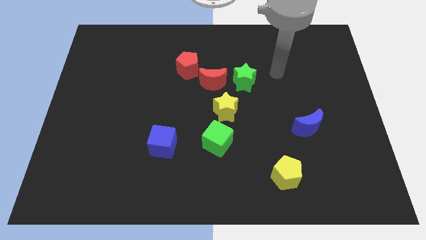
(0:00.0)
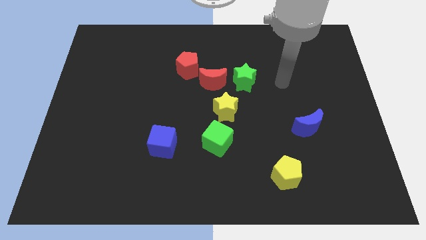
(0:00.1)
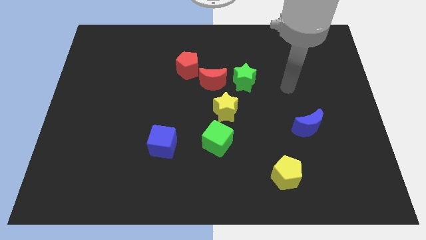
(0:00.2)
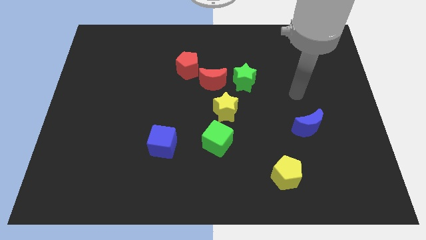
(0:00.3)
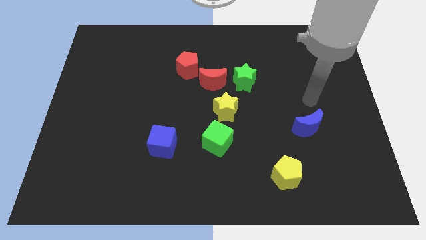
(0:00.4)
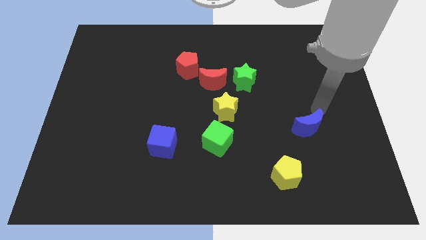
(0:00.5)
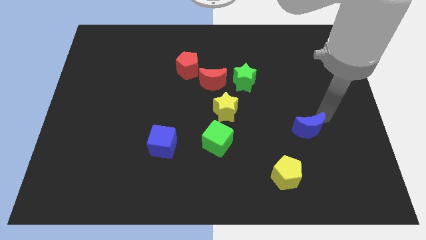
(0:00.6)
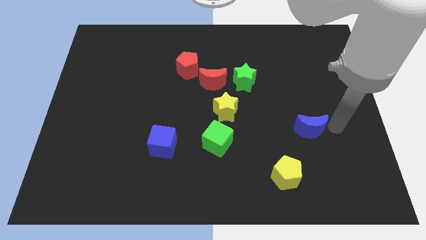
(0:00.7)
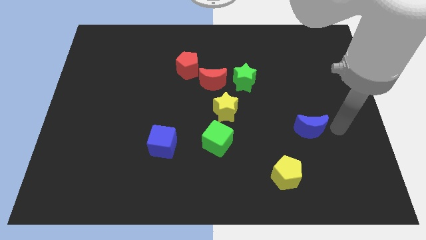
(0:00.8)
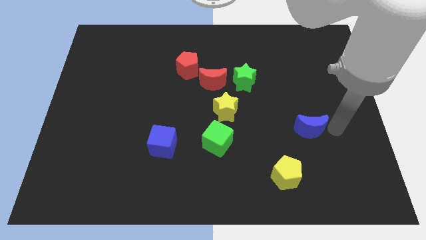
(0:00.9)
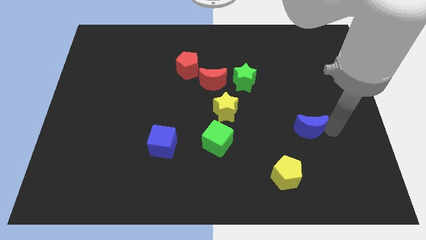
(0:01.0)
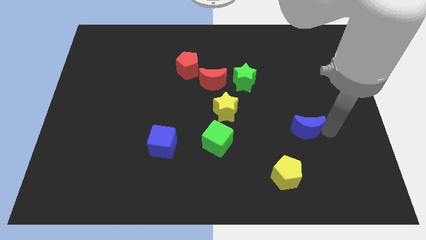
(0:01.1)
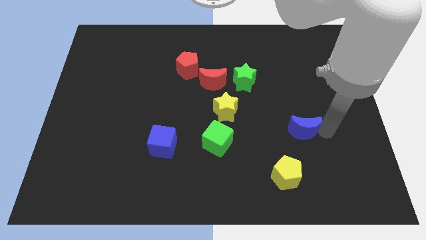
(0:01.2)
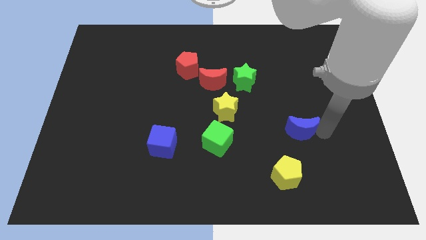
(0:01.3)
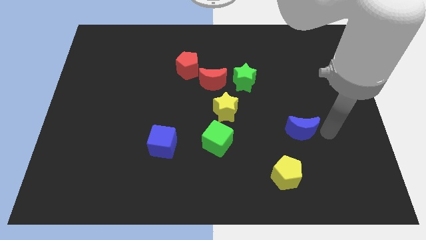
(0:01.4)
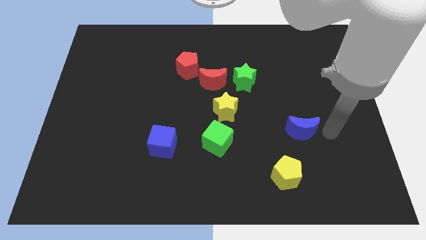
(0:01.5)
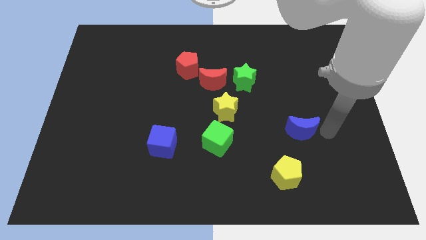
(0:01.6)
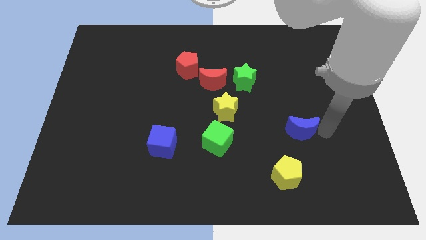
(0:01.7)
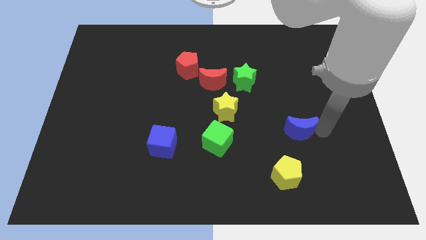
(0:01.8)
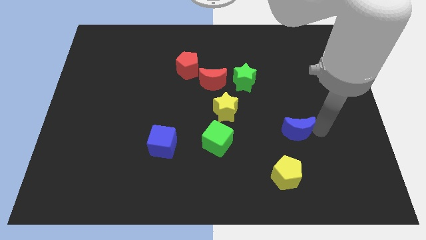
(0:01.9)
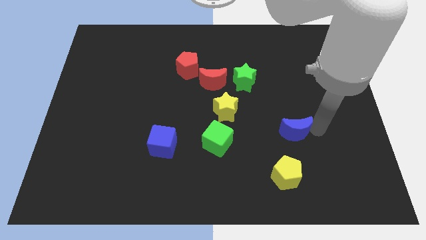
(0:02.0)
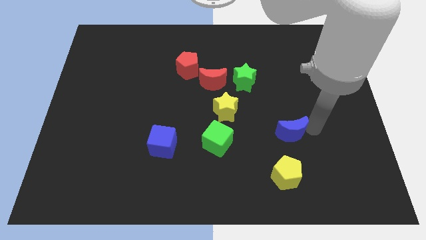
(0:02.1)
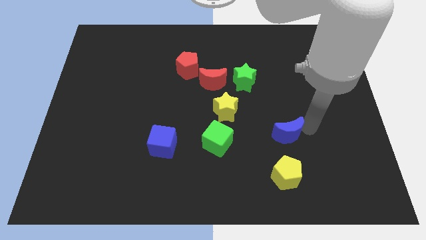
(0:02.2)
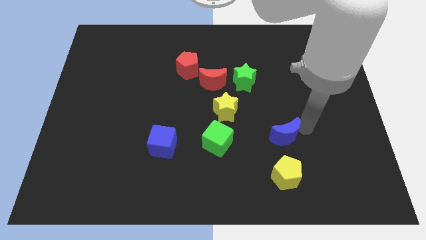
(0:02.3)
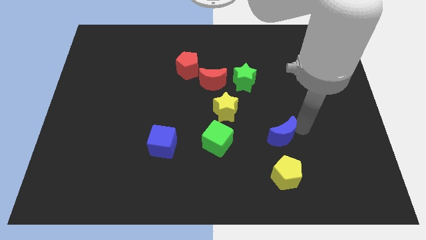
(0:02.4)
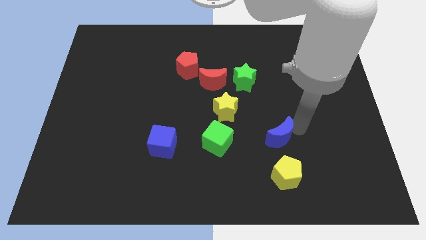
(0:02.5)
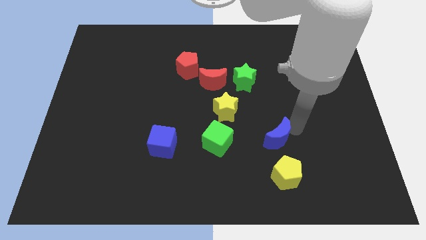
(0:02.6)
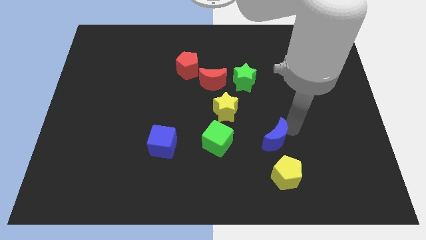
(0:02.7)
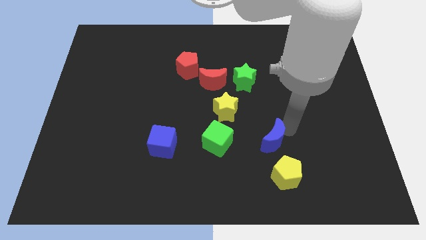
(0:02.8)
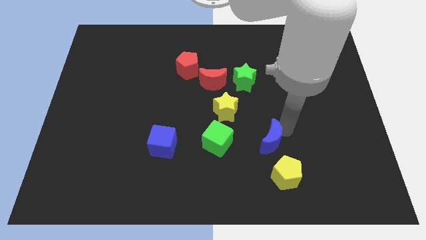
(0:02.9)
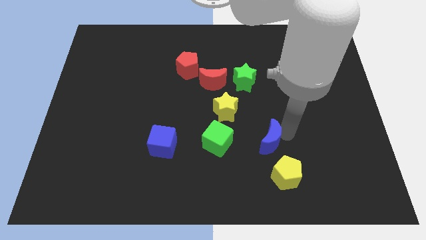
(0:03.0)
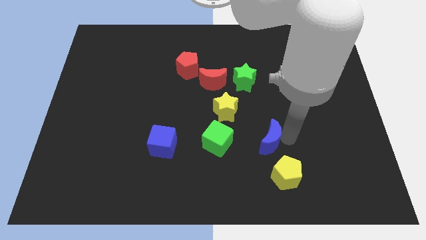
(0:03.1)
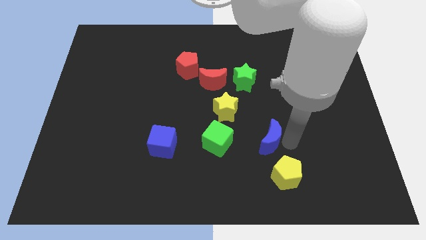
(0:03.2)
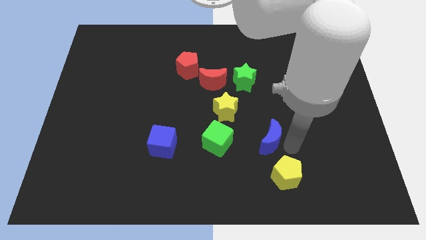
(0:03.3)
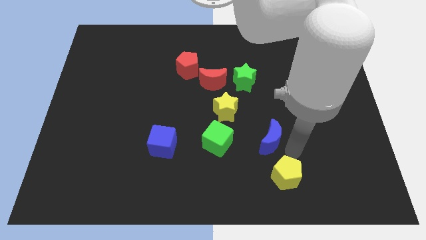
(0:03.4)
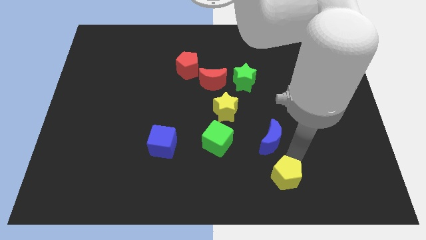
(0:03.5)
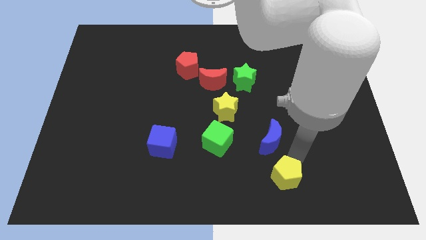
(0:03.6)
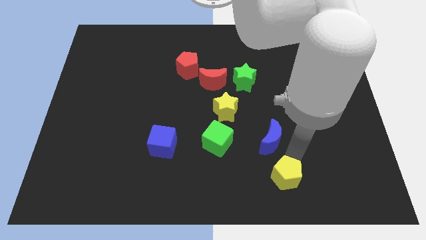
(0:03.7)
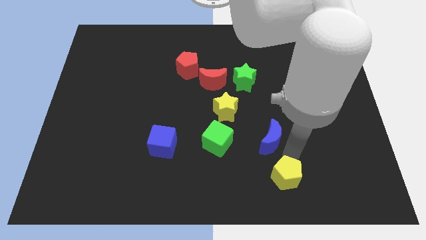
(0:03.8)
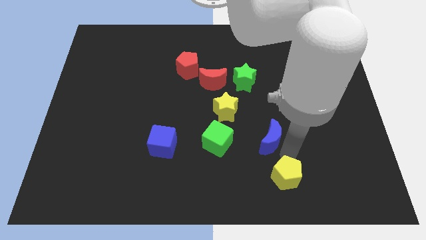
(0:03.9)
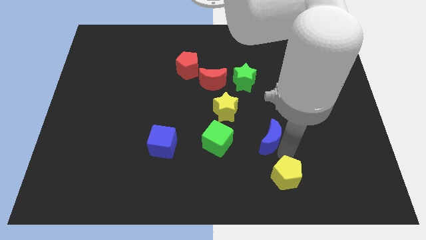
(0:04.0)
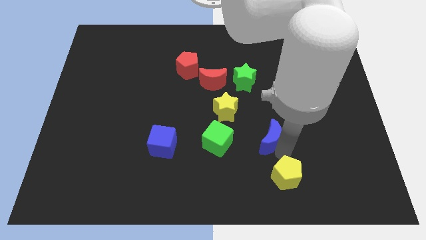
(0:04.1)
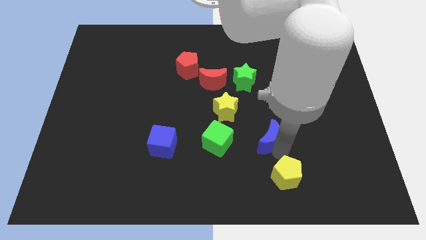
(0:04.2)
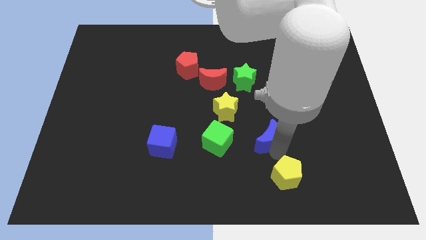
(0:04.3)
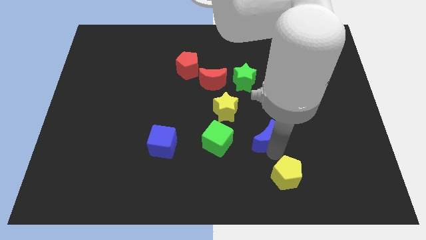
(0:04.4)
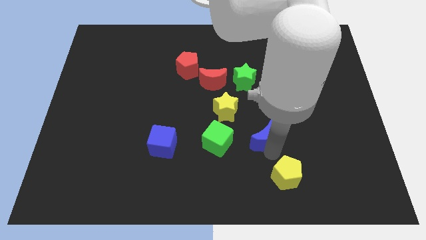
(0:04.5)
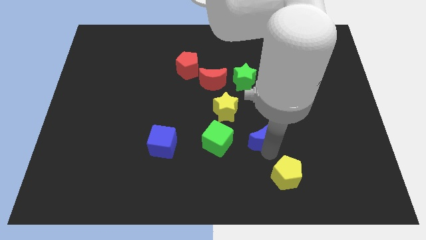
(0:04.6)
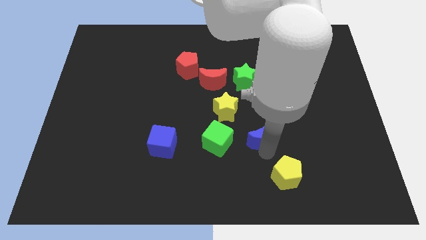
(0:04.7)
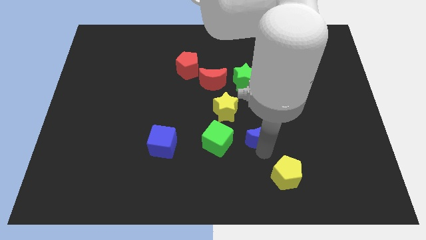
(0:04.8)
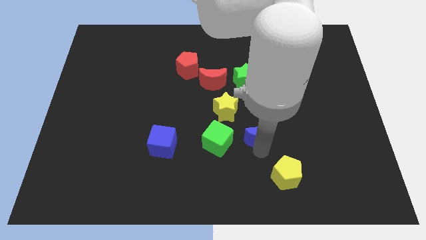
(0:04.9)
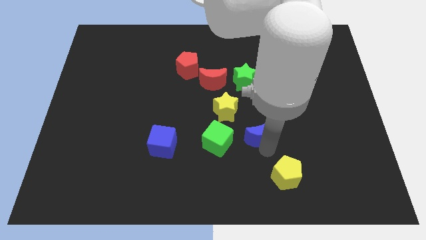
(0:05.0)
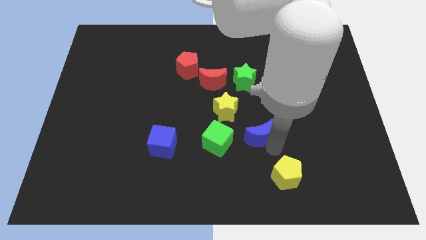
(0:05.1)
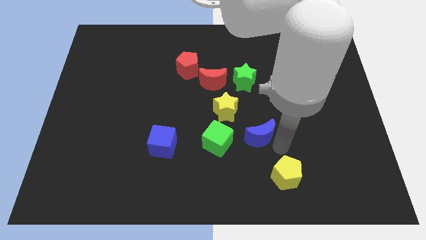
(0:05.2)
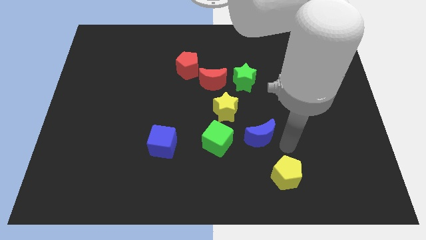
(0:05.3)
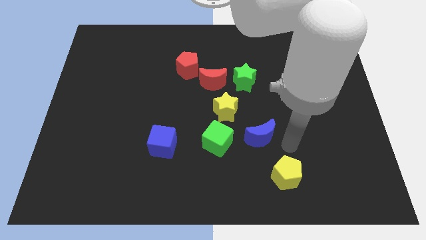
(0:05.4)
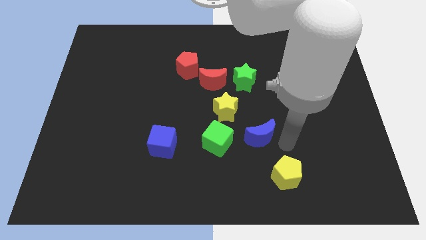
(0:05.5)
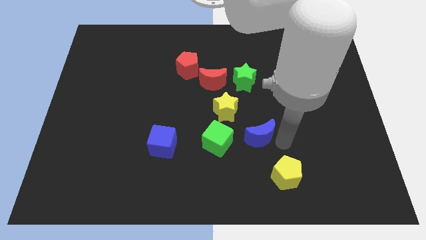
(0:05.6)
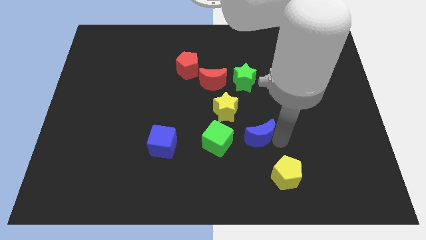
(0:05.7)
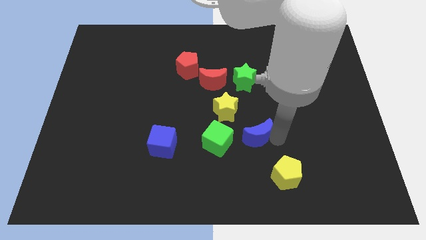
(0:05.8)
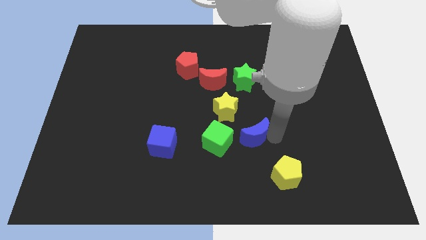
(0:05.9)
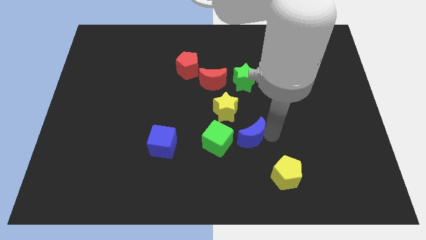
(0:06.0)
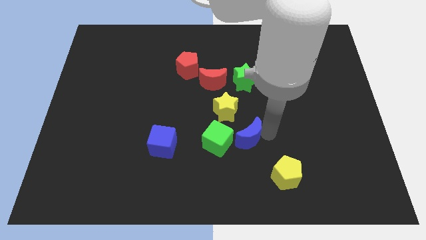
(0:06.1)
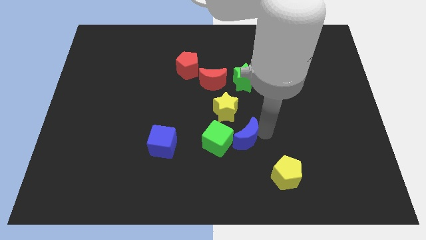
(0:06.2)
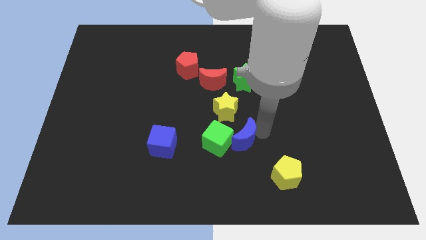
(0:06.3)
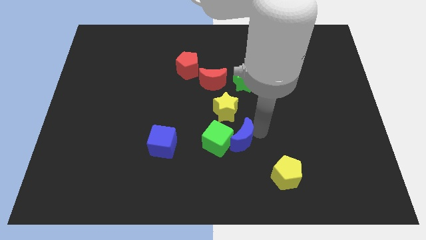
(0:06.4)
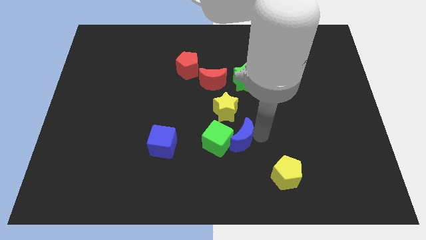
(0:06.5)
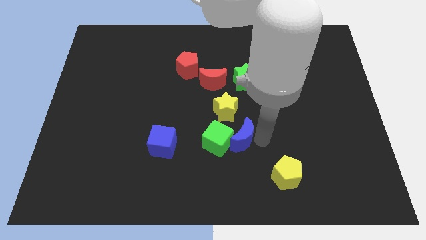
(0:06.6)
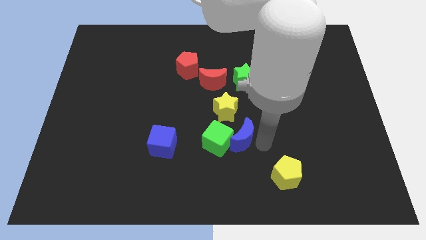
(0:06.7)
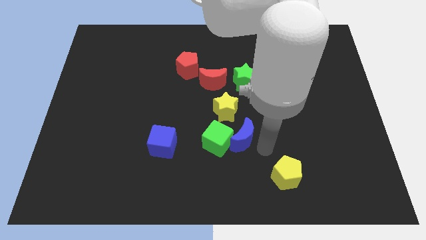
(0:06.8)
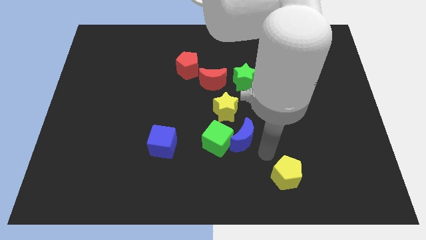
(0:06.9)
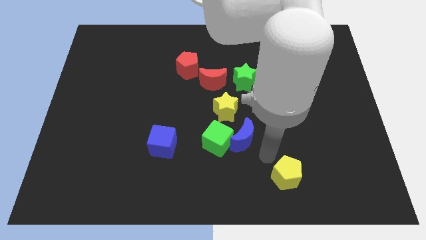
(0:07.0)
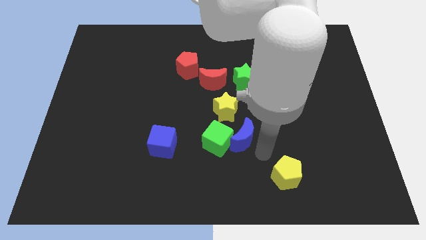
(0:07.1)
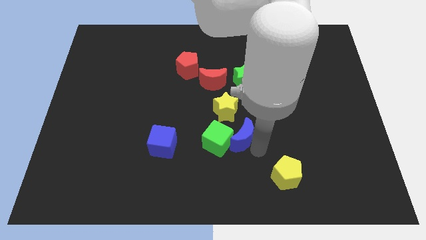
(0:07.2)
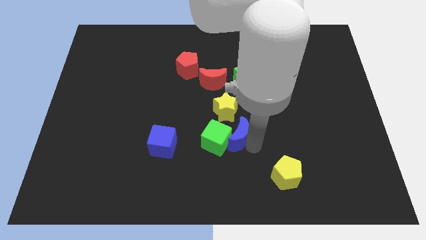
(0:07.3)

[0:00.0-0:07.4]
slide the blue moon to the middle of the board
